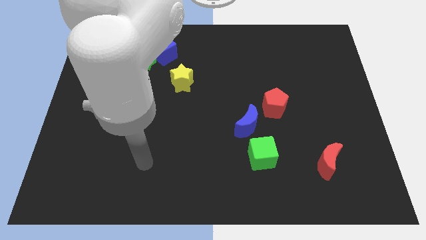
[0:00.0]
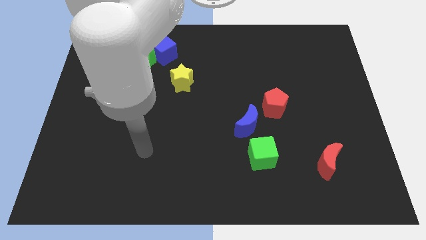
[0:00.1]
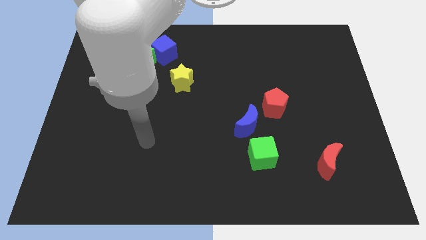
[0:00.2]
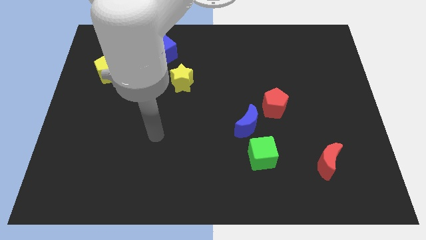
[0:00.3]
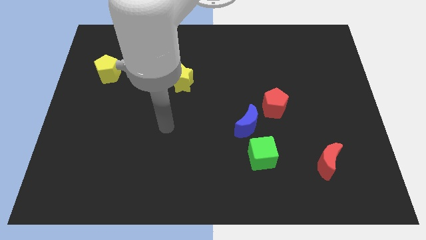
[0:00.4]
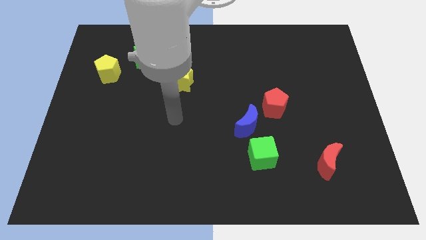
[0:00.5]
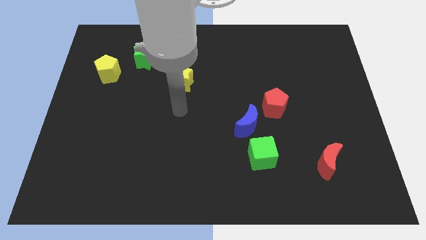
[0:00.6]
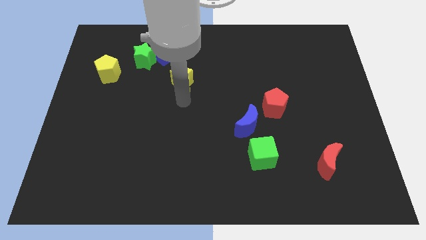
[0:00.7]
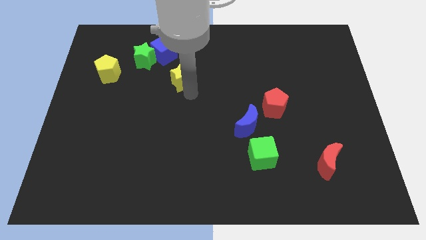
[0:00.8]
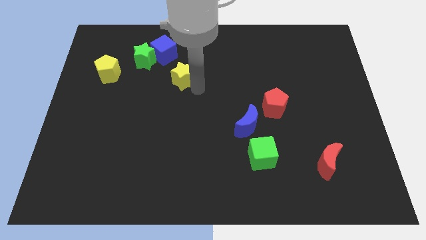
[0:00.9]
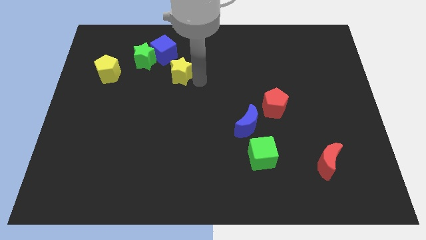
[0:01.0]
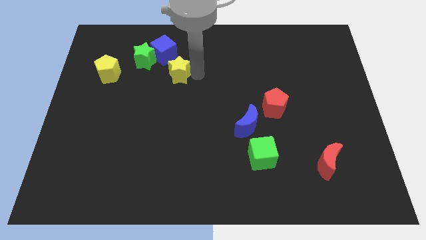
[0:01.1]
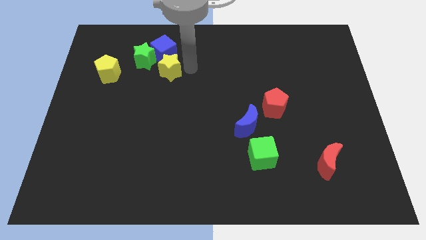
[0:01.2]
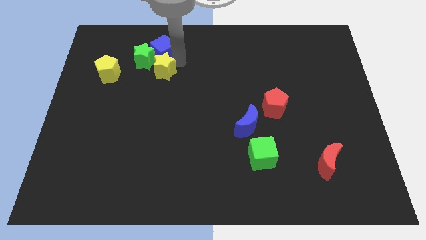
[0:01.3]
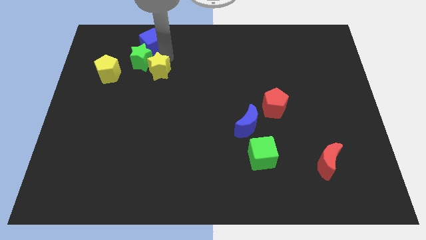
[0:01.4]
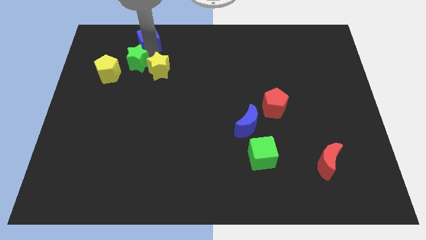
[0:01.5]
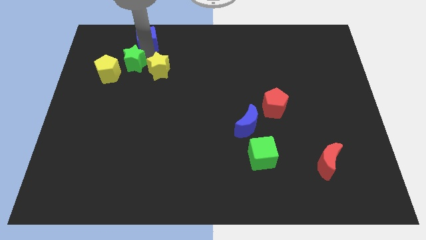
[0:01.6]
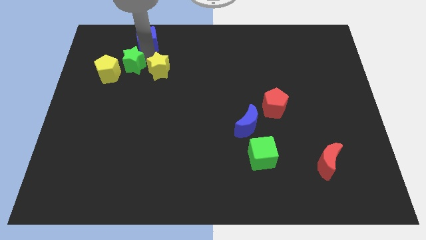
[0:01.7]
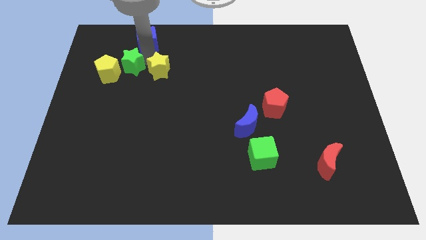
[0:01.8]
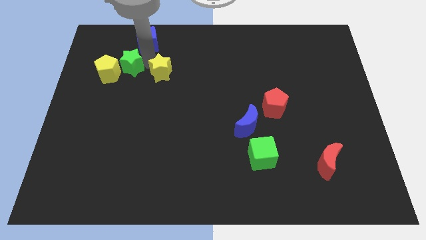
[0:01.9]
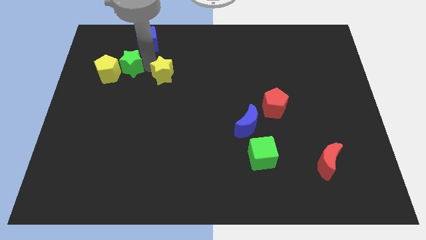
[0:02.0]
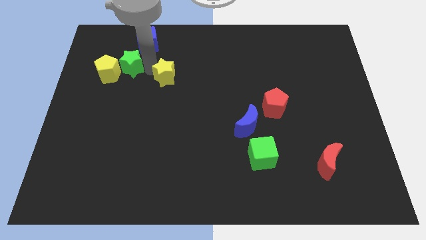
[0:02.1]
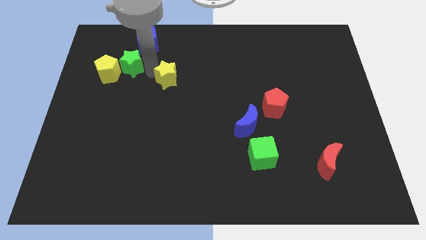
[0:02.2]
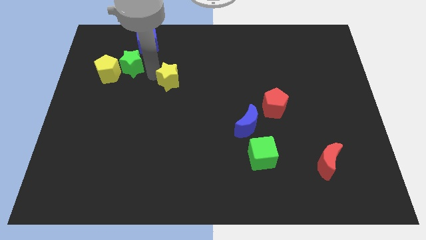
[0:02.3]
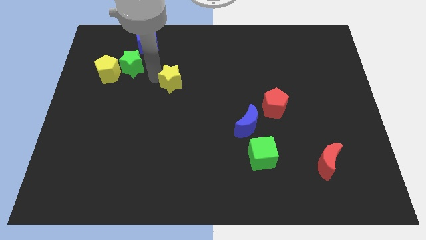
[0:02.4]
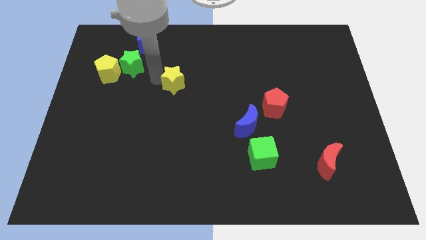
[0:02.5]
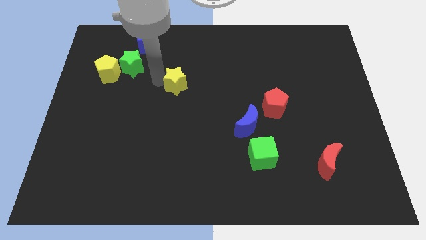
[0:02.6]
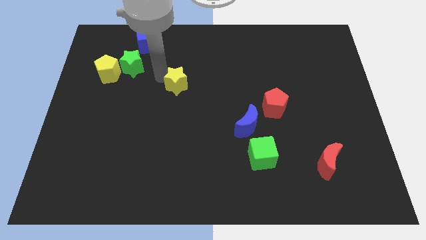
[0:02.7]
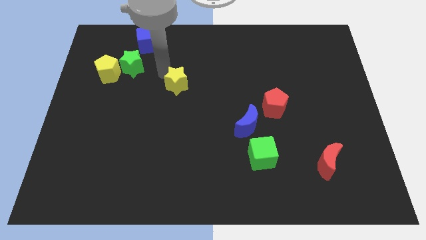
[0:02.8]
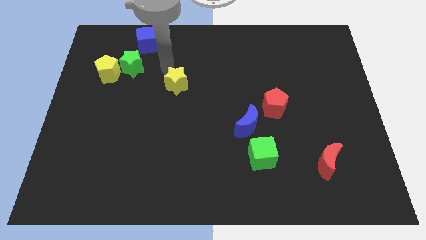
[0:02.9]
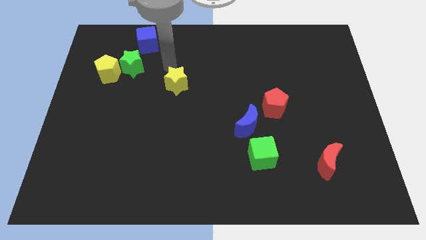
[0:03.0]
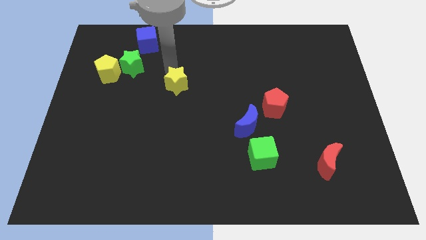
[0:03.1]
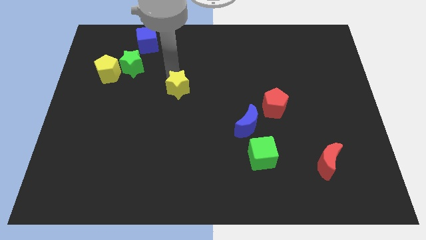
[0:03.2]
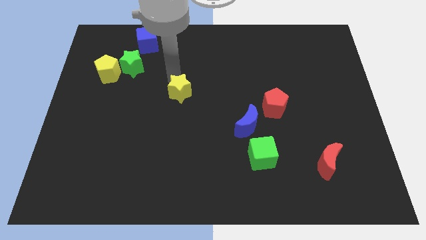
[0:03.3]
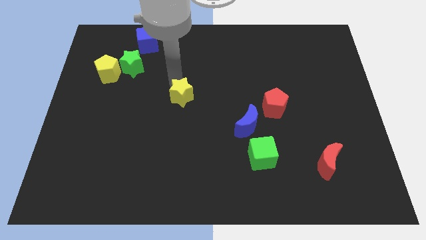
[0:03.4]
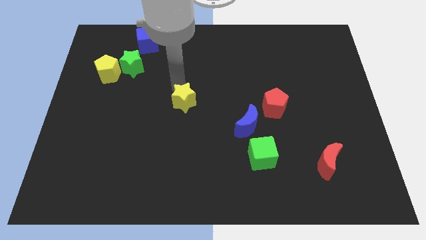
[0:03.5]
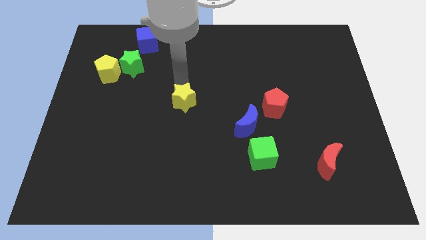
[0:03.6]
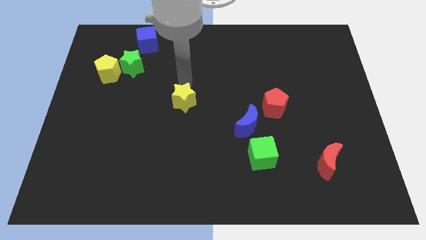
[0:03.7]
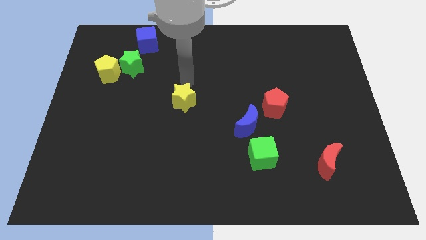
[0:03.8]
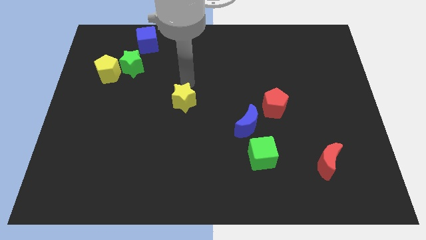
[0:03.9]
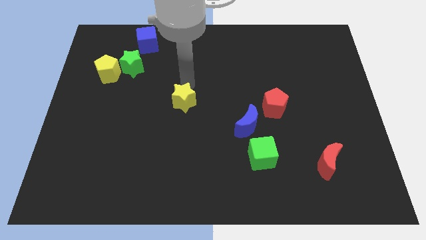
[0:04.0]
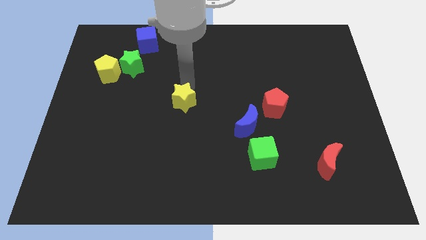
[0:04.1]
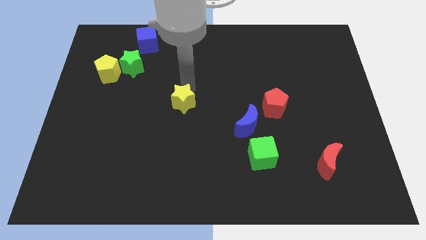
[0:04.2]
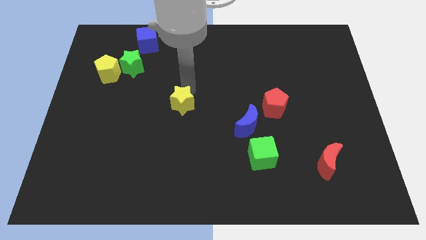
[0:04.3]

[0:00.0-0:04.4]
slightly move the yellow star down

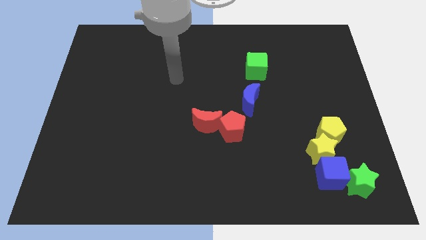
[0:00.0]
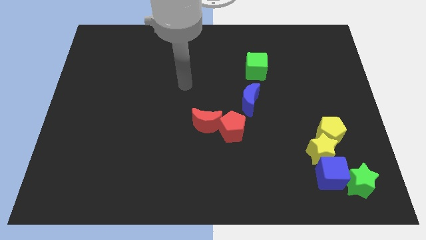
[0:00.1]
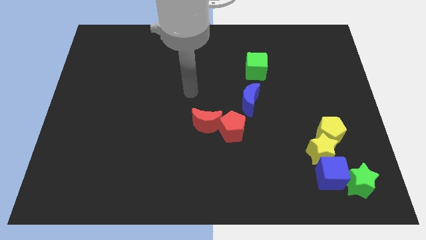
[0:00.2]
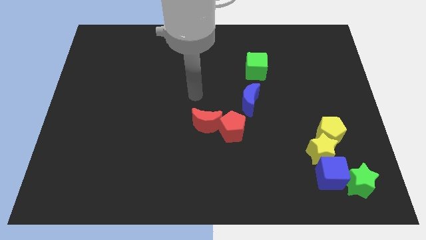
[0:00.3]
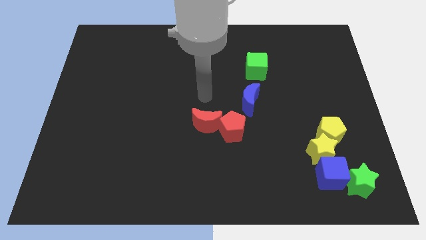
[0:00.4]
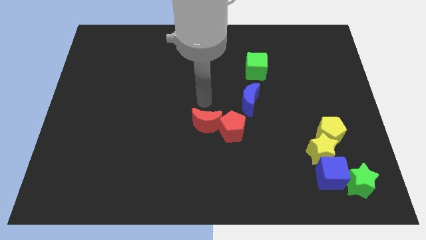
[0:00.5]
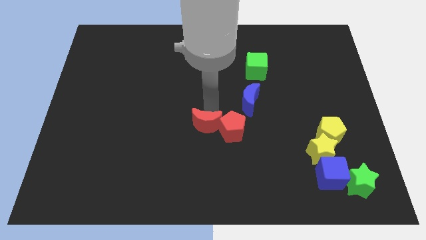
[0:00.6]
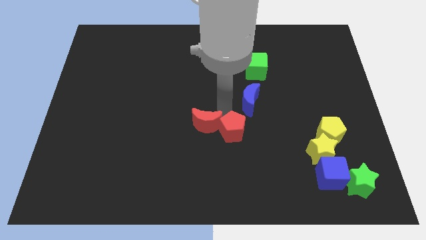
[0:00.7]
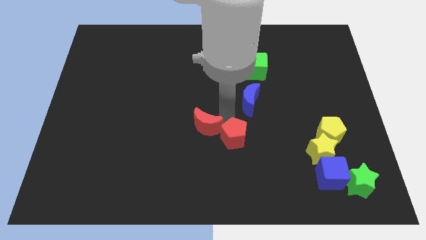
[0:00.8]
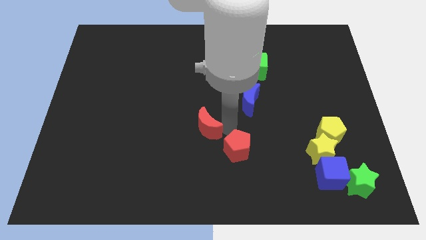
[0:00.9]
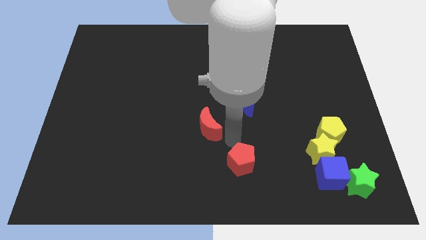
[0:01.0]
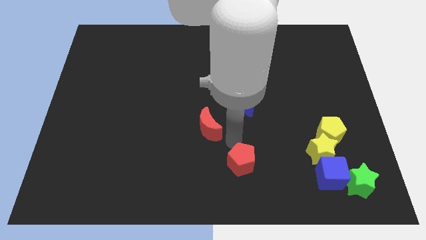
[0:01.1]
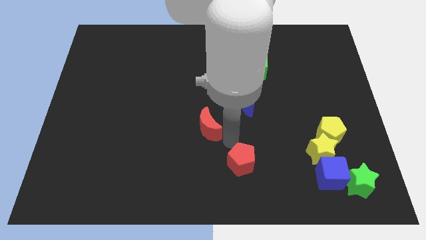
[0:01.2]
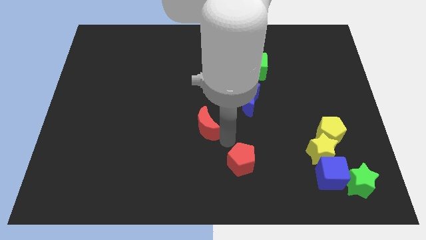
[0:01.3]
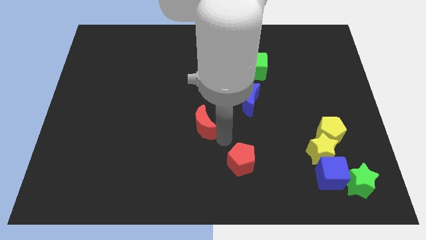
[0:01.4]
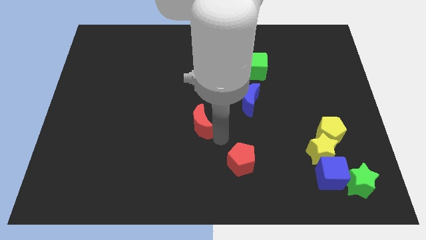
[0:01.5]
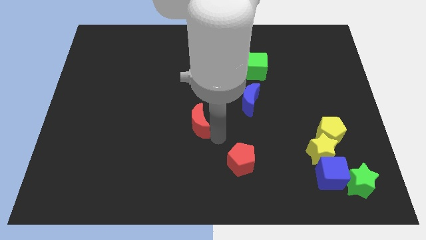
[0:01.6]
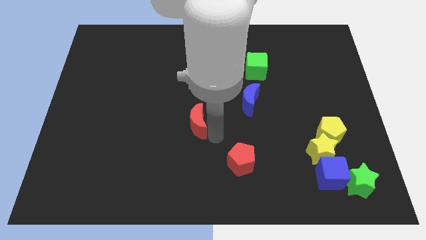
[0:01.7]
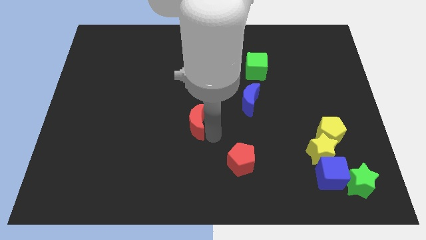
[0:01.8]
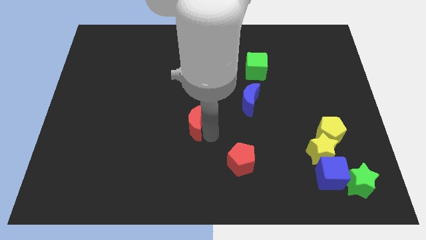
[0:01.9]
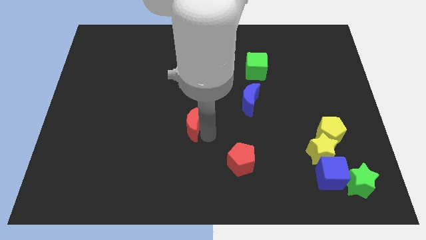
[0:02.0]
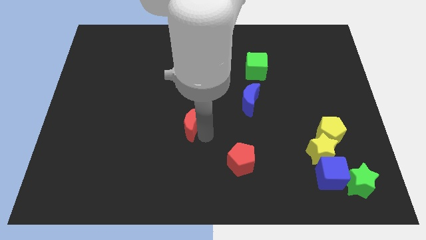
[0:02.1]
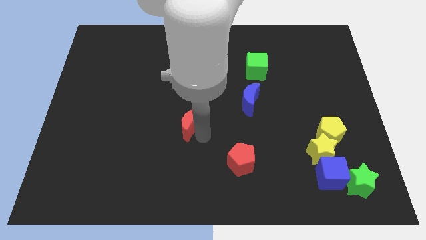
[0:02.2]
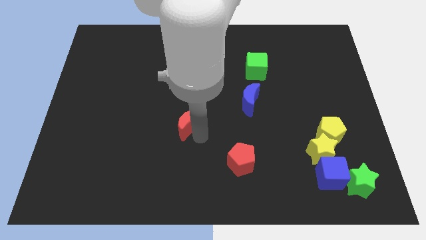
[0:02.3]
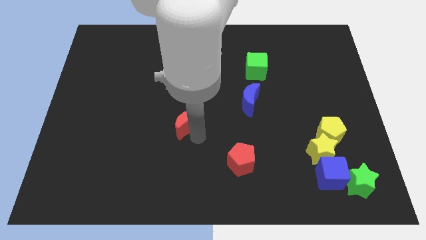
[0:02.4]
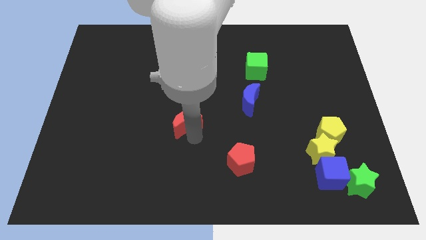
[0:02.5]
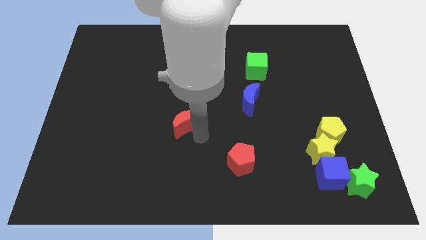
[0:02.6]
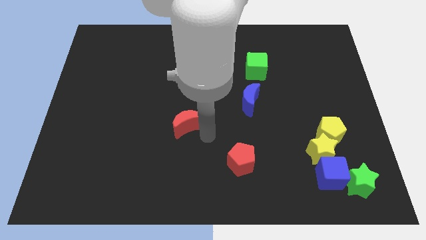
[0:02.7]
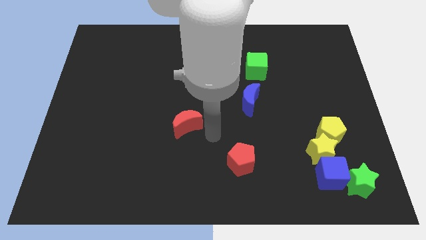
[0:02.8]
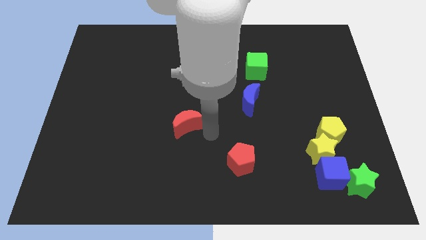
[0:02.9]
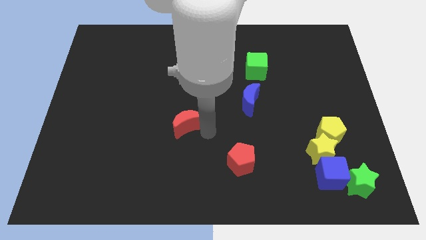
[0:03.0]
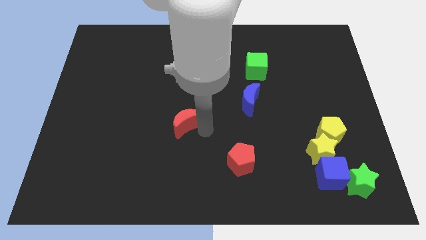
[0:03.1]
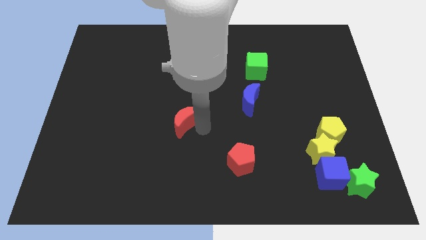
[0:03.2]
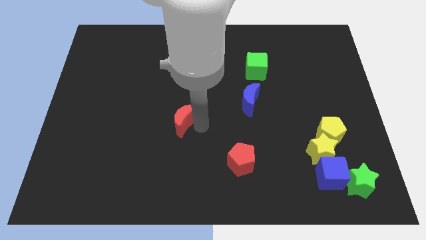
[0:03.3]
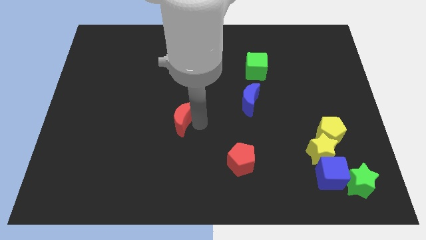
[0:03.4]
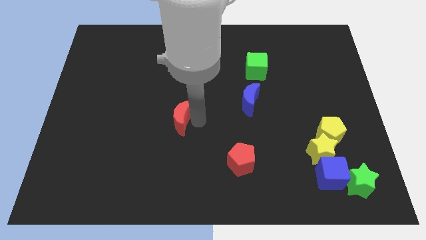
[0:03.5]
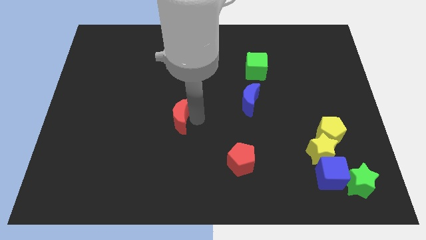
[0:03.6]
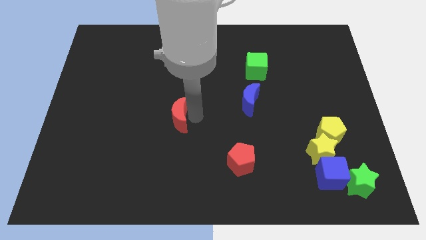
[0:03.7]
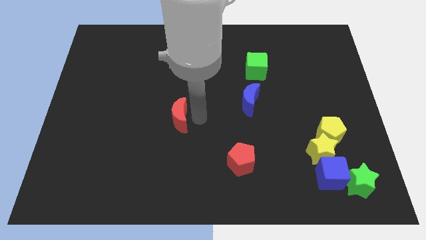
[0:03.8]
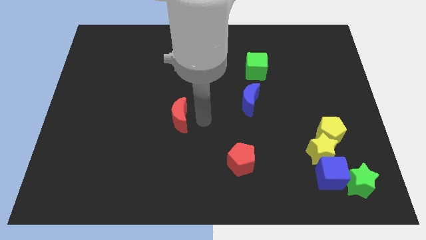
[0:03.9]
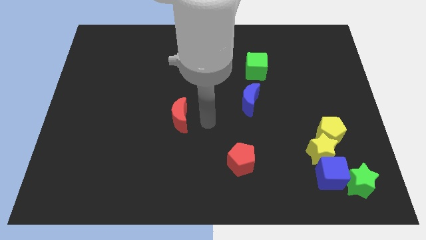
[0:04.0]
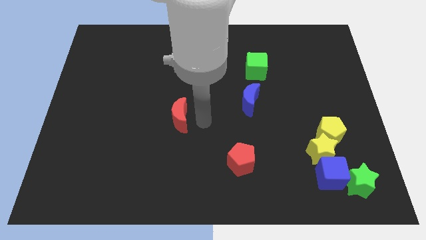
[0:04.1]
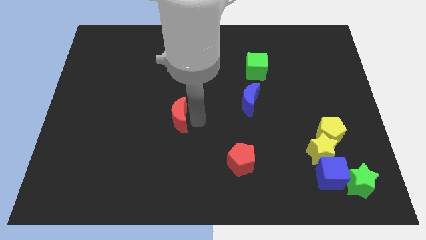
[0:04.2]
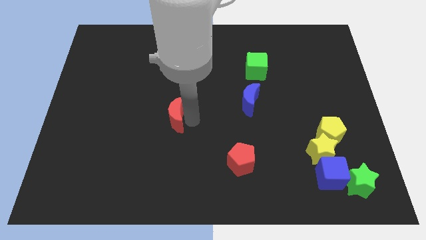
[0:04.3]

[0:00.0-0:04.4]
move the red moon a bit left
